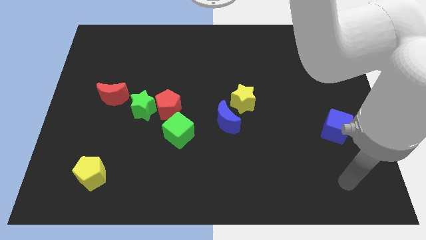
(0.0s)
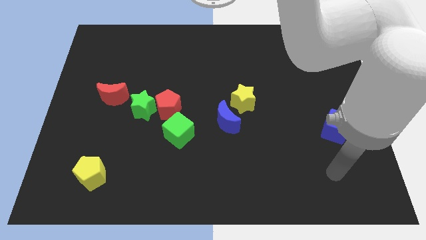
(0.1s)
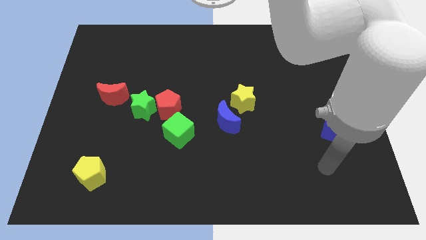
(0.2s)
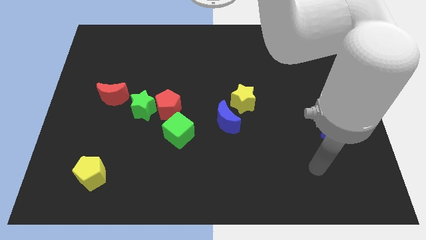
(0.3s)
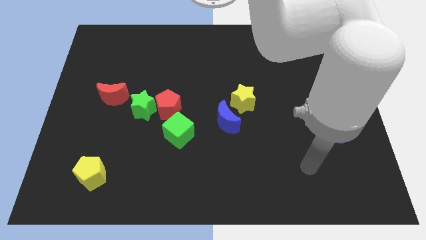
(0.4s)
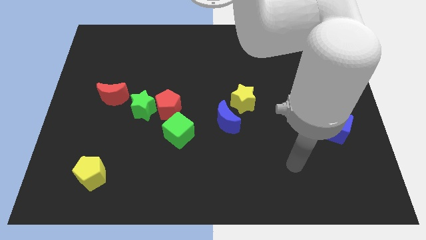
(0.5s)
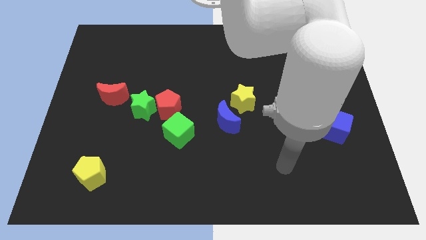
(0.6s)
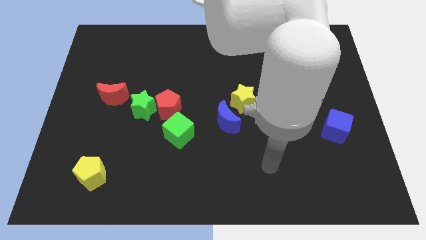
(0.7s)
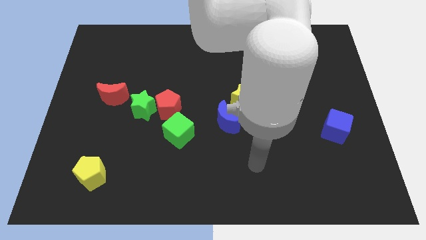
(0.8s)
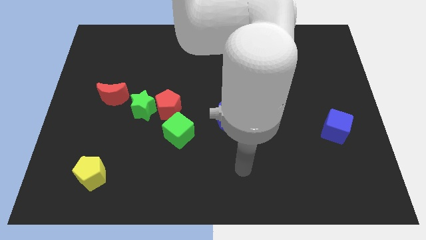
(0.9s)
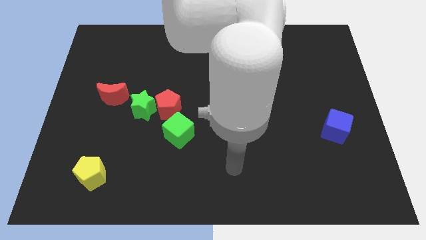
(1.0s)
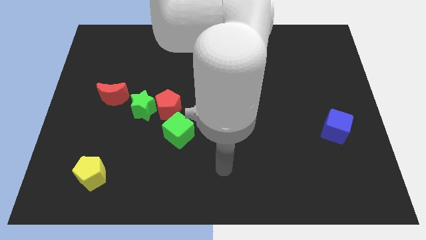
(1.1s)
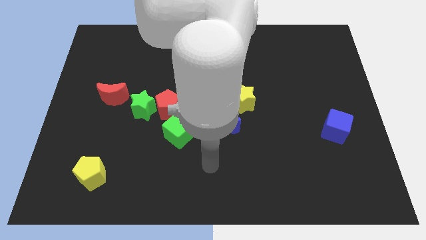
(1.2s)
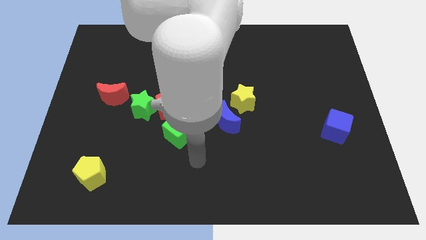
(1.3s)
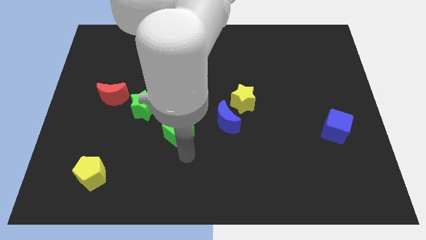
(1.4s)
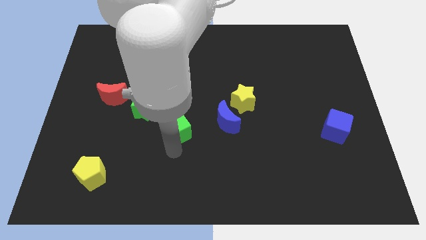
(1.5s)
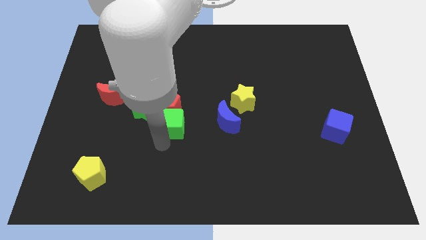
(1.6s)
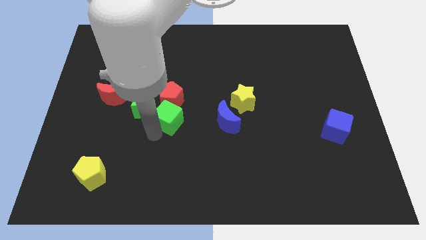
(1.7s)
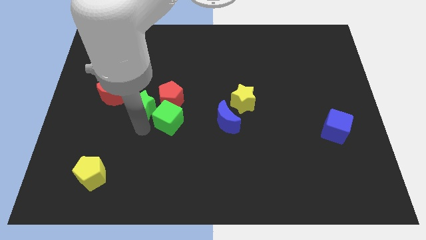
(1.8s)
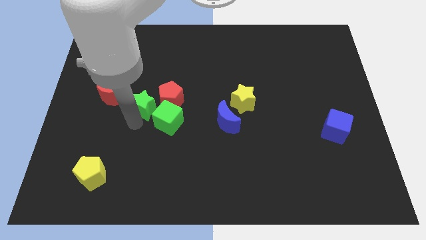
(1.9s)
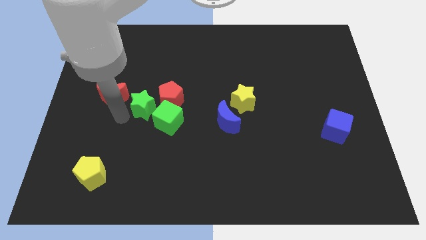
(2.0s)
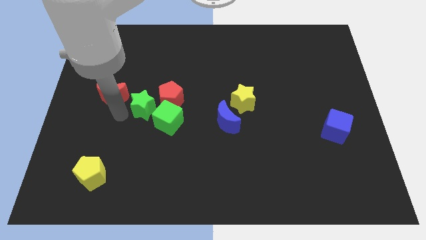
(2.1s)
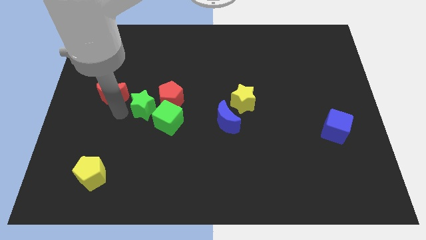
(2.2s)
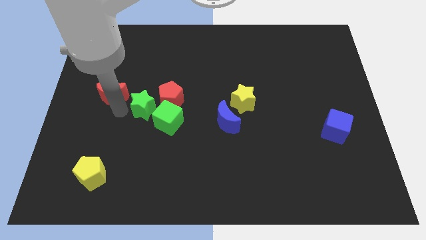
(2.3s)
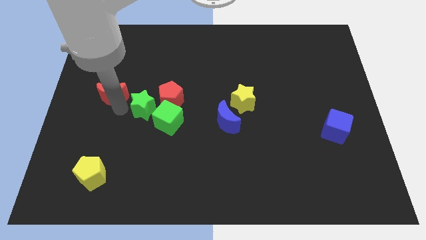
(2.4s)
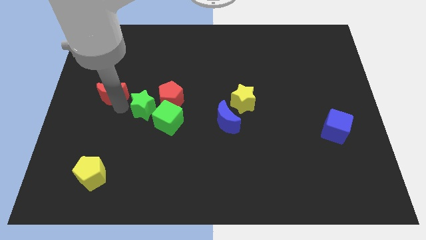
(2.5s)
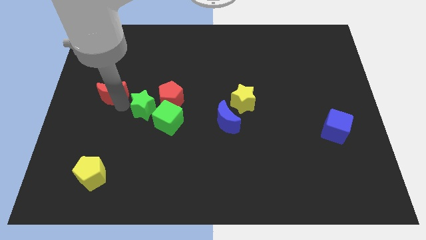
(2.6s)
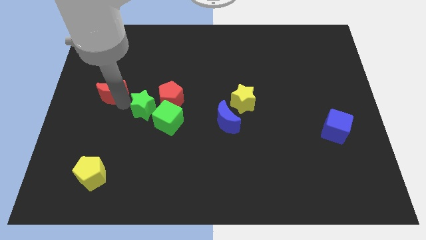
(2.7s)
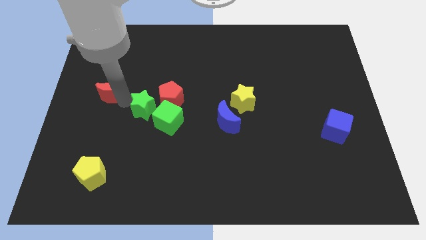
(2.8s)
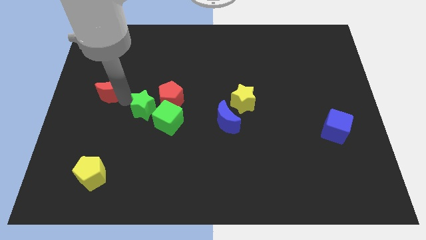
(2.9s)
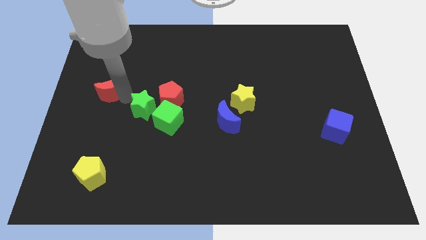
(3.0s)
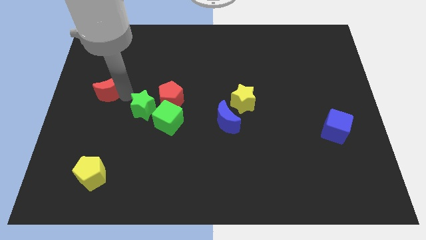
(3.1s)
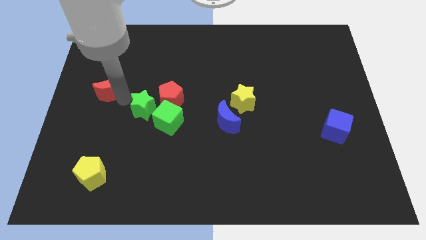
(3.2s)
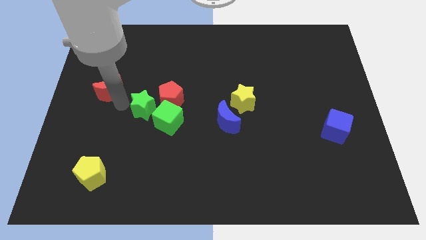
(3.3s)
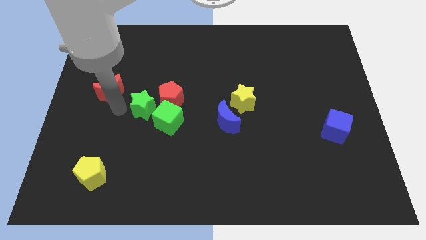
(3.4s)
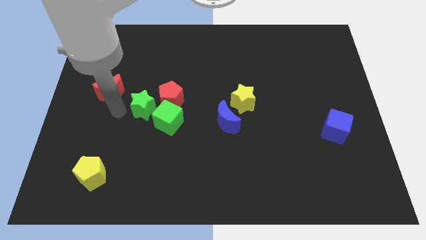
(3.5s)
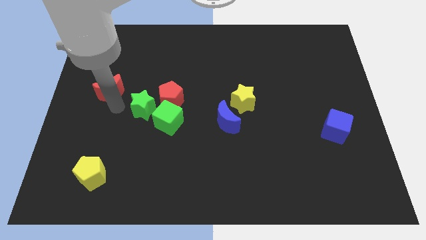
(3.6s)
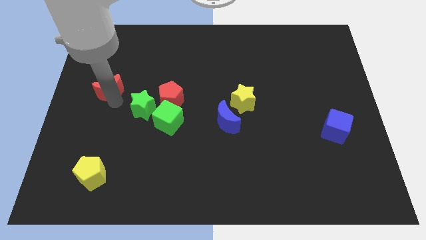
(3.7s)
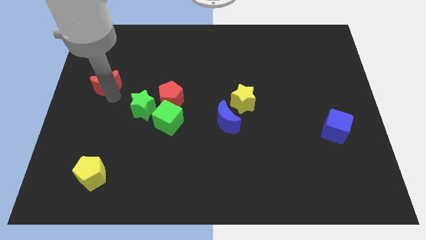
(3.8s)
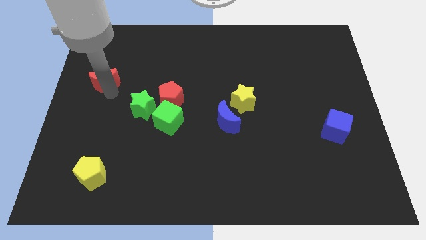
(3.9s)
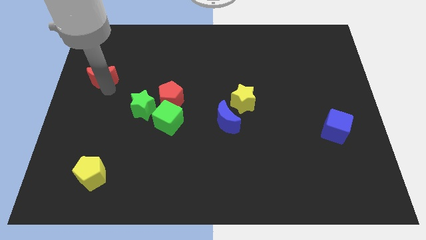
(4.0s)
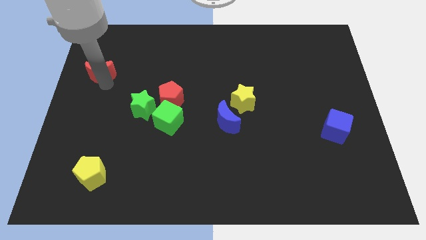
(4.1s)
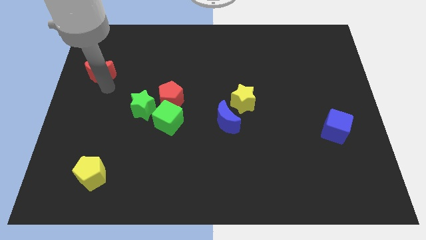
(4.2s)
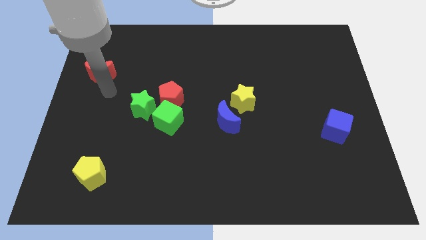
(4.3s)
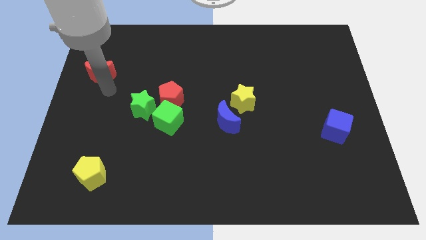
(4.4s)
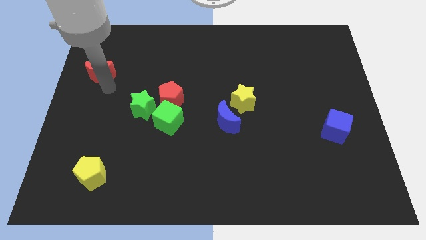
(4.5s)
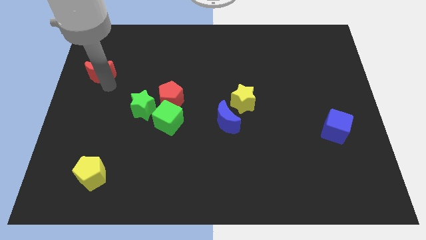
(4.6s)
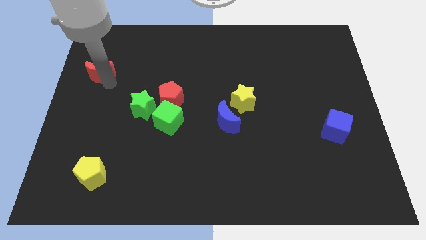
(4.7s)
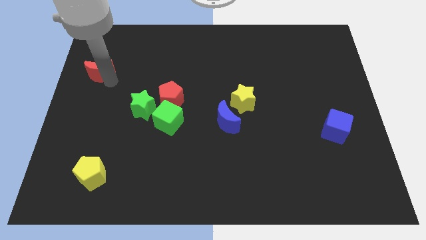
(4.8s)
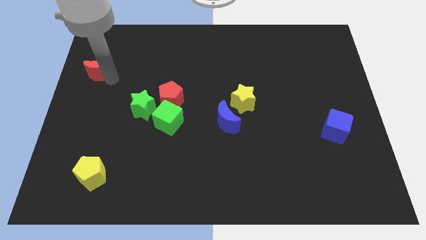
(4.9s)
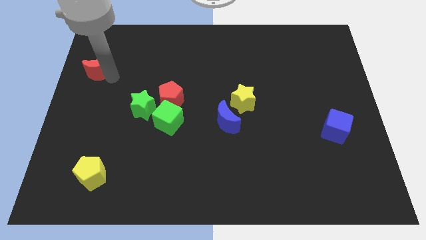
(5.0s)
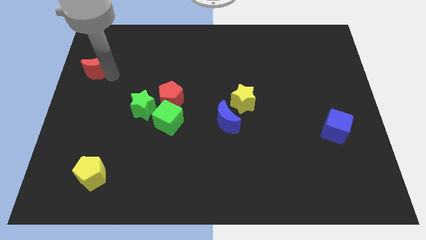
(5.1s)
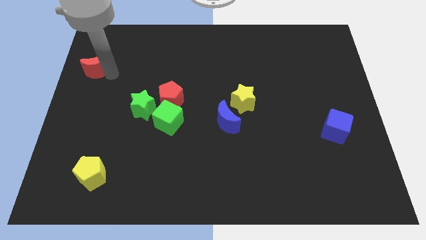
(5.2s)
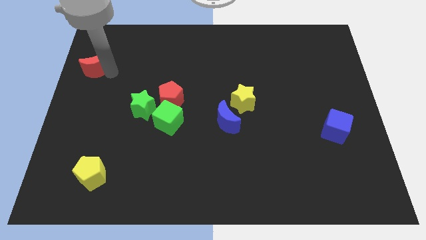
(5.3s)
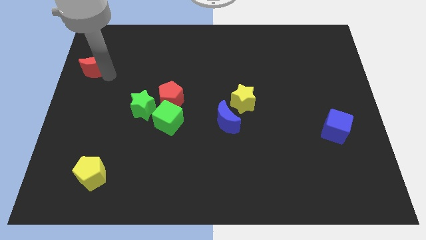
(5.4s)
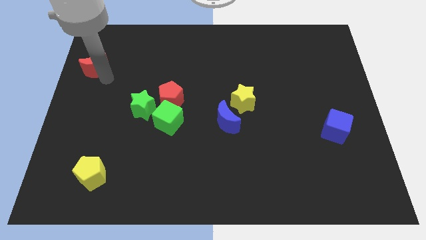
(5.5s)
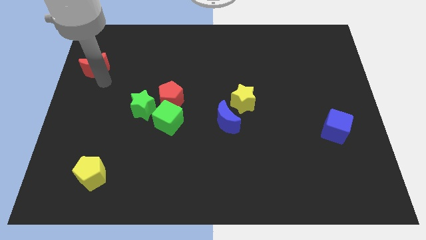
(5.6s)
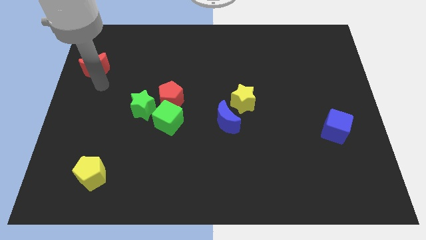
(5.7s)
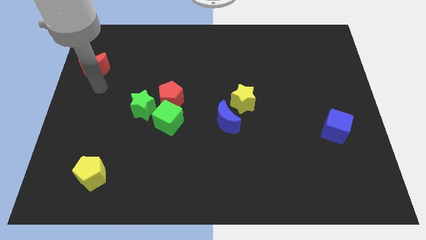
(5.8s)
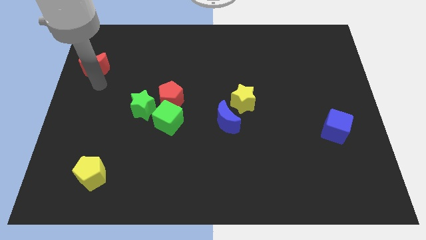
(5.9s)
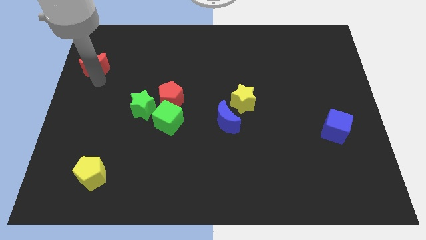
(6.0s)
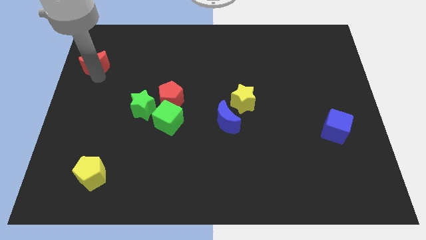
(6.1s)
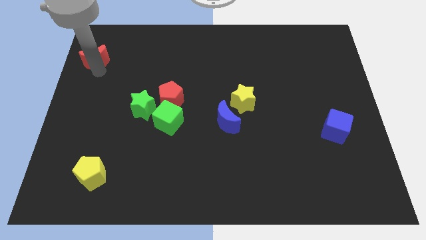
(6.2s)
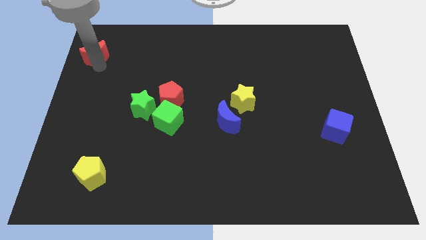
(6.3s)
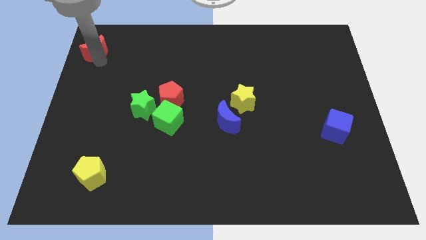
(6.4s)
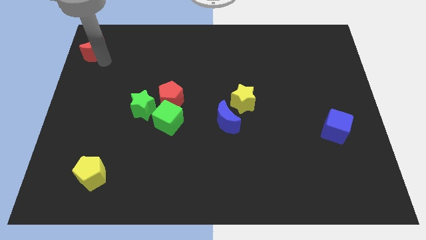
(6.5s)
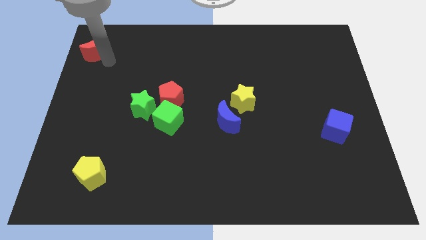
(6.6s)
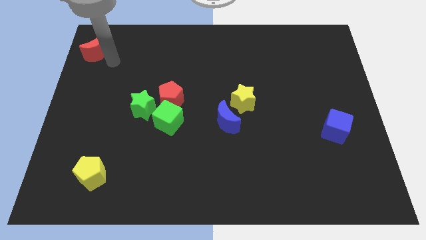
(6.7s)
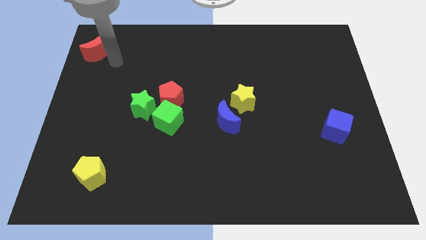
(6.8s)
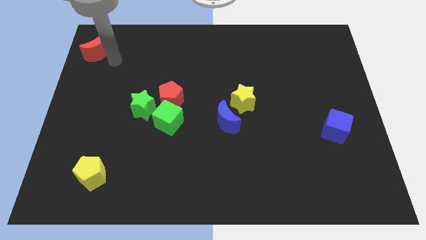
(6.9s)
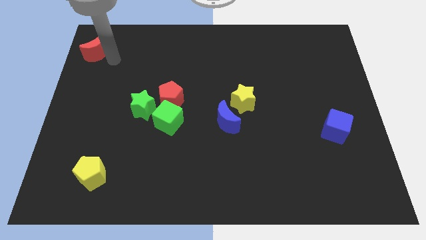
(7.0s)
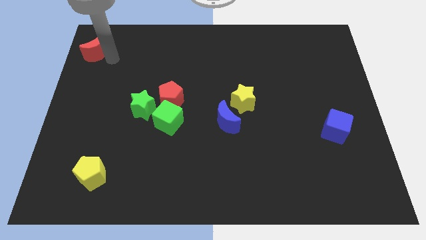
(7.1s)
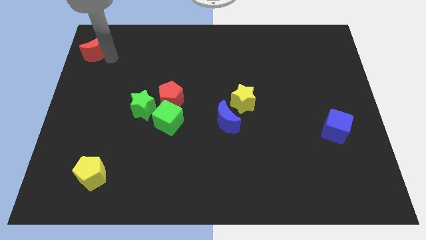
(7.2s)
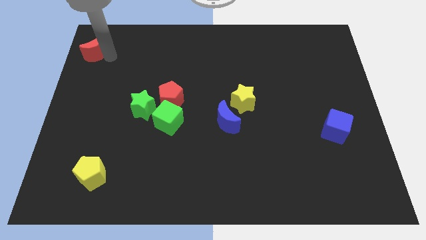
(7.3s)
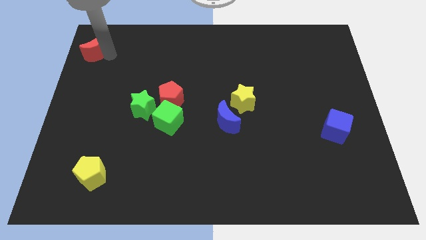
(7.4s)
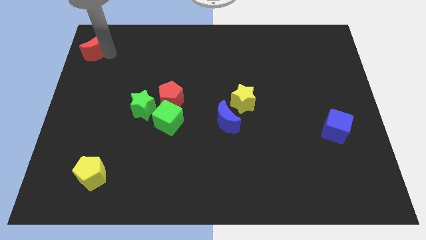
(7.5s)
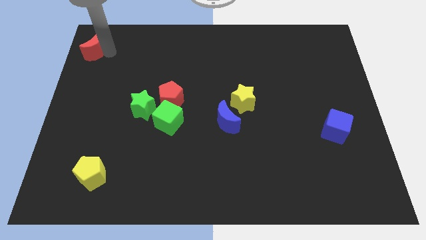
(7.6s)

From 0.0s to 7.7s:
put the red moon to the top left
